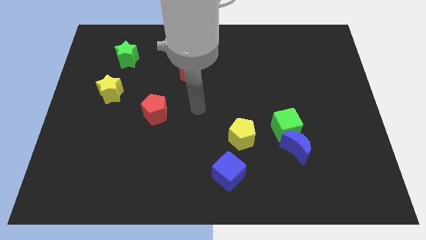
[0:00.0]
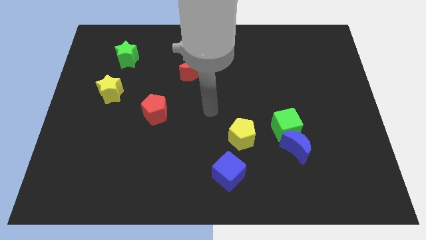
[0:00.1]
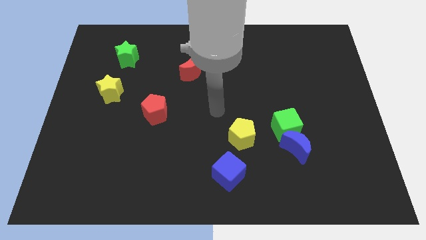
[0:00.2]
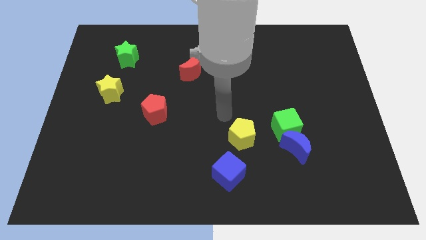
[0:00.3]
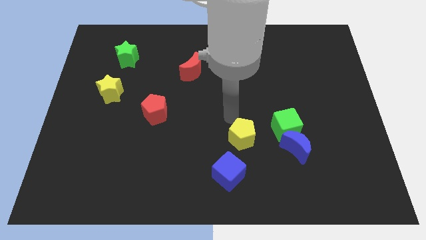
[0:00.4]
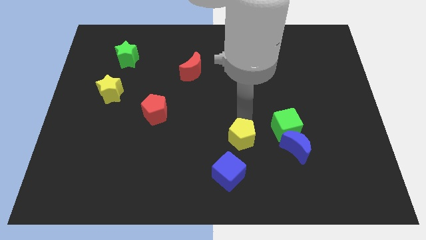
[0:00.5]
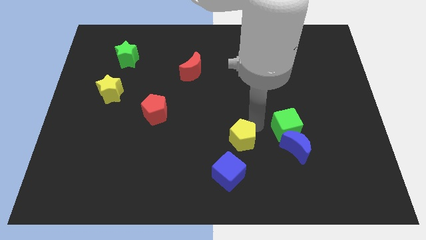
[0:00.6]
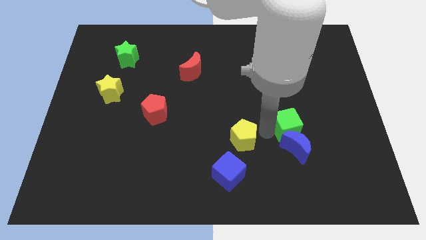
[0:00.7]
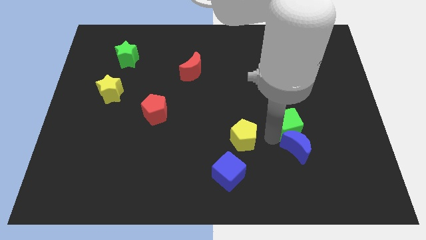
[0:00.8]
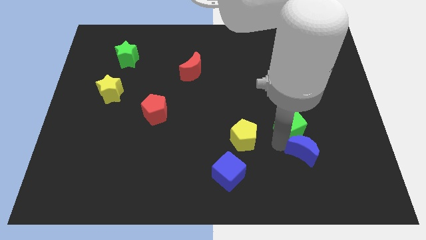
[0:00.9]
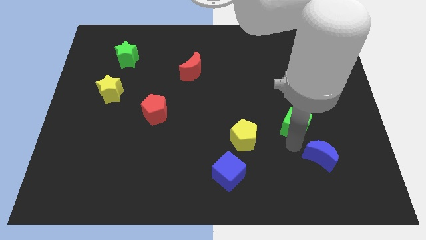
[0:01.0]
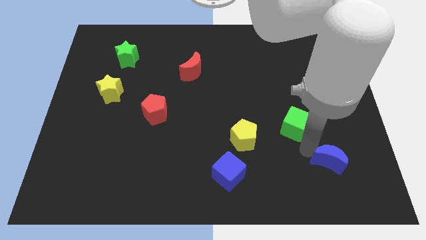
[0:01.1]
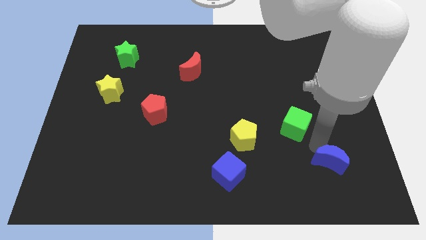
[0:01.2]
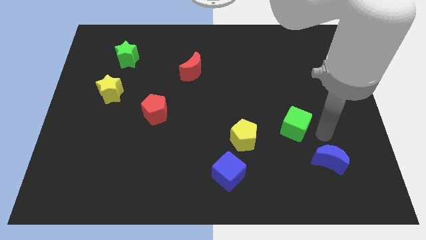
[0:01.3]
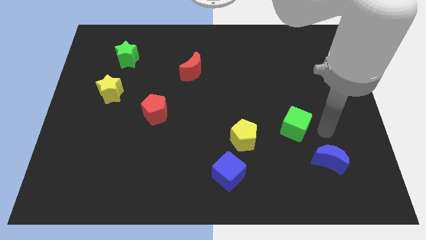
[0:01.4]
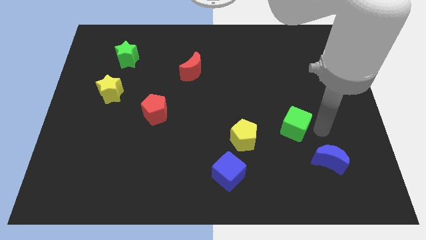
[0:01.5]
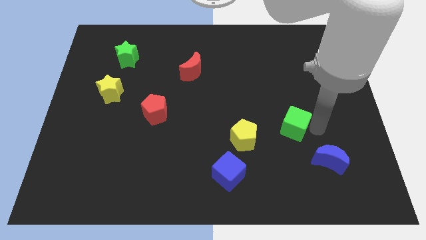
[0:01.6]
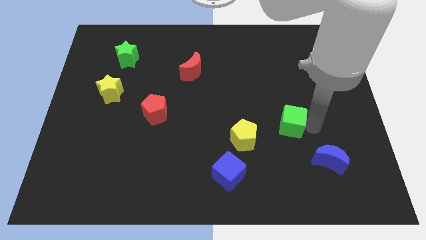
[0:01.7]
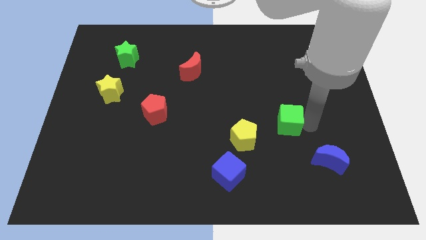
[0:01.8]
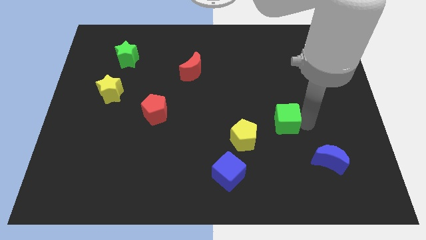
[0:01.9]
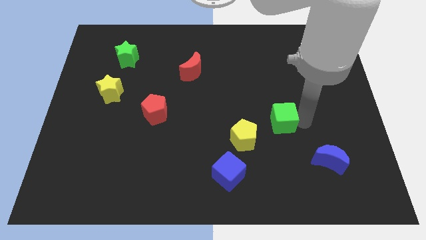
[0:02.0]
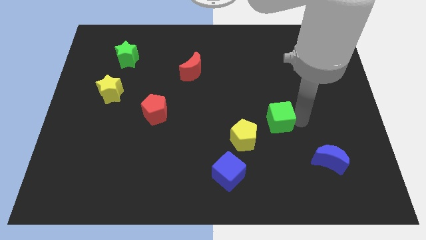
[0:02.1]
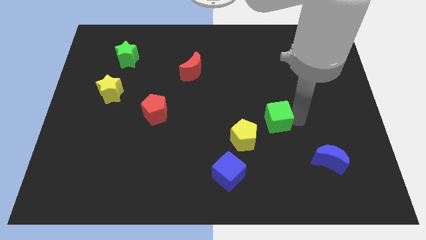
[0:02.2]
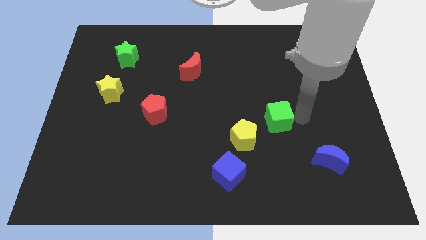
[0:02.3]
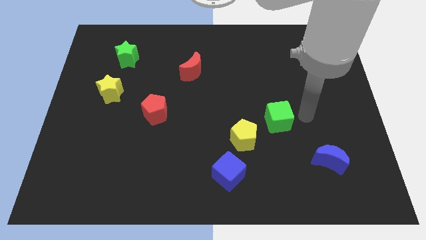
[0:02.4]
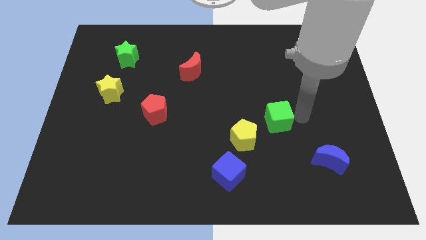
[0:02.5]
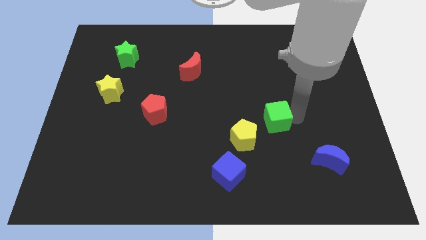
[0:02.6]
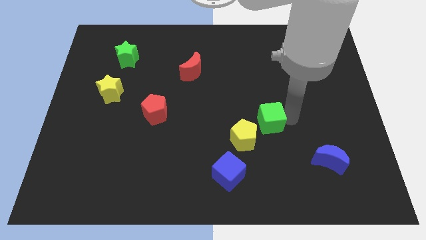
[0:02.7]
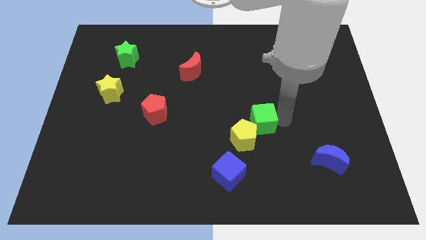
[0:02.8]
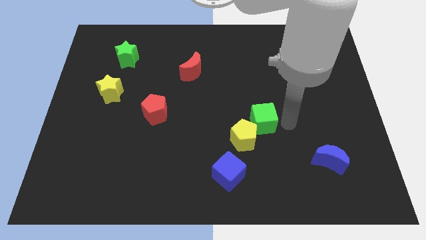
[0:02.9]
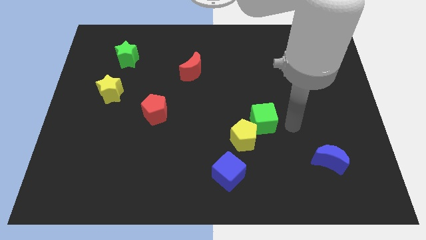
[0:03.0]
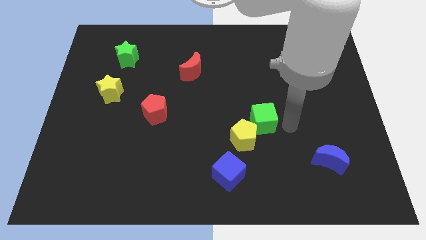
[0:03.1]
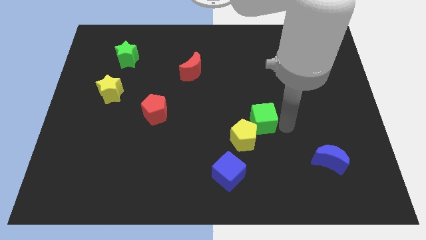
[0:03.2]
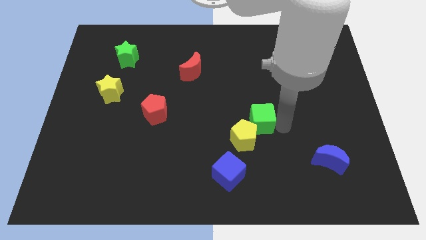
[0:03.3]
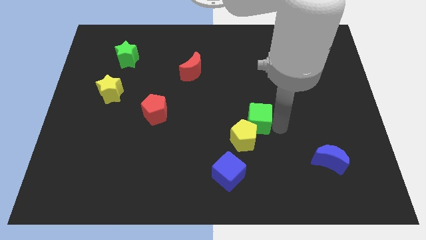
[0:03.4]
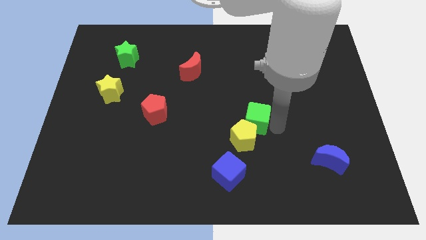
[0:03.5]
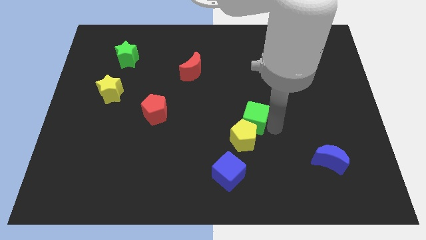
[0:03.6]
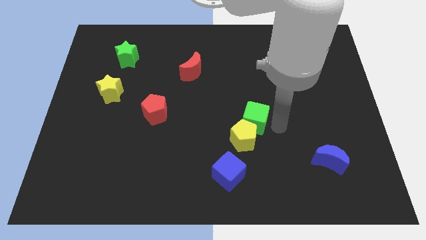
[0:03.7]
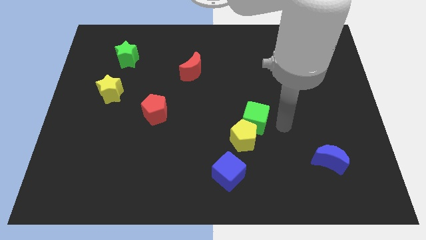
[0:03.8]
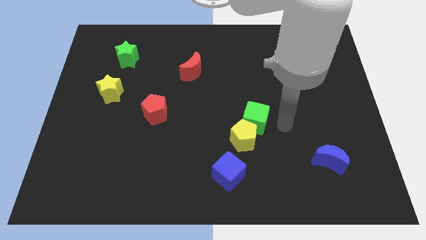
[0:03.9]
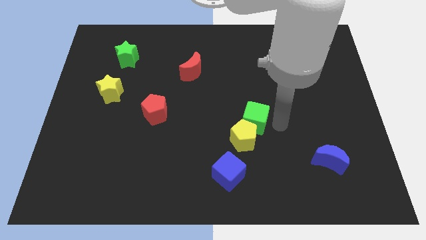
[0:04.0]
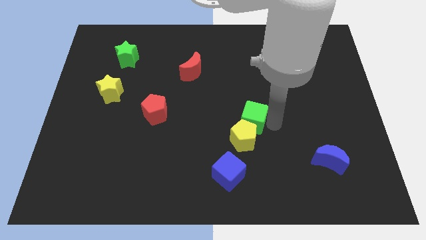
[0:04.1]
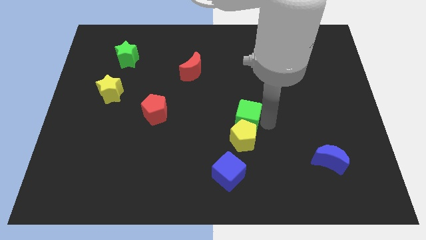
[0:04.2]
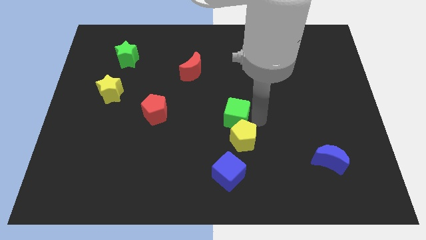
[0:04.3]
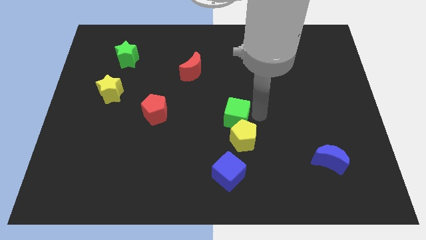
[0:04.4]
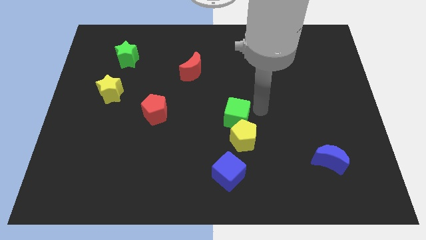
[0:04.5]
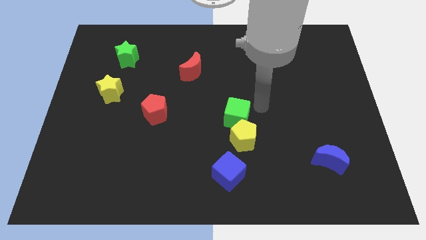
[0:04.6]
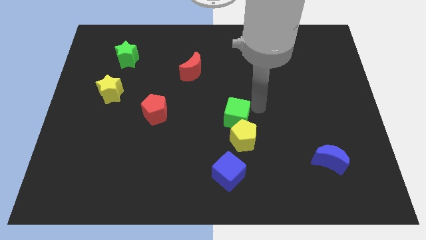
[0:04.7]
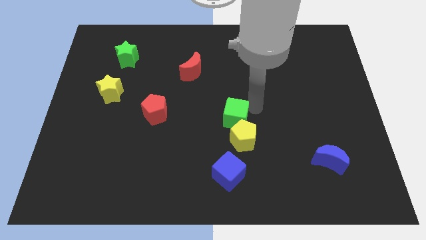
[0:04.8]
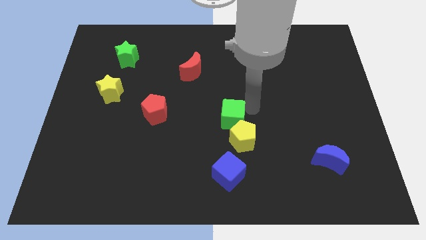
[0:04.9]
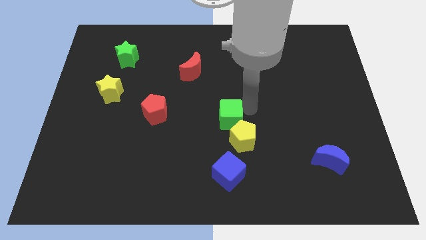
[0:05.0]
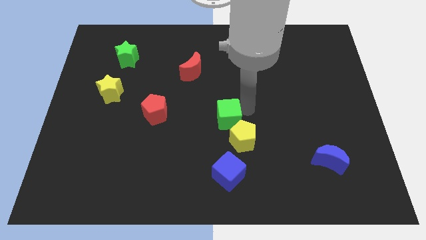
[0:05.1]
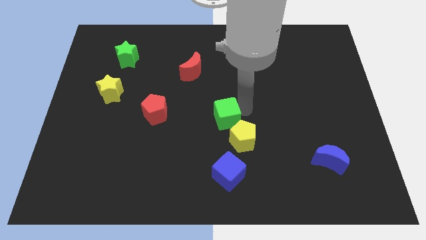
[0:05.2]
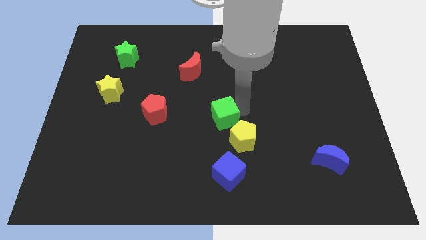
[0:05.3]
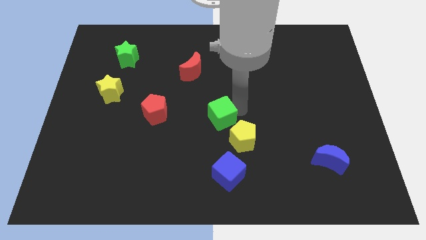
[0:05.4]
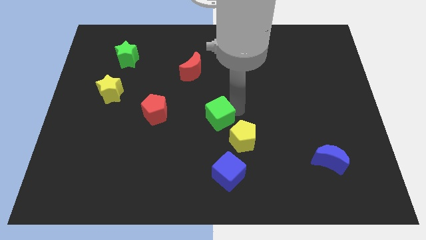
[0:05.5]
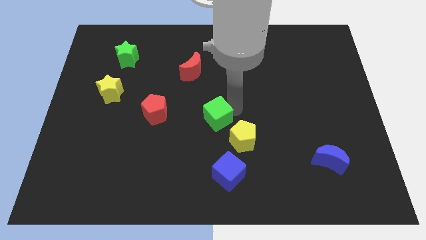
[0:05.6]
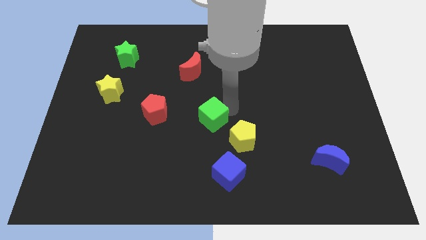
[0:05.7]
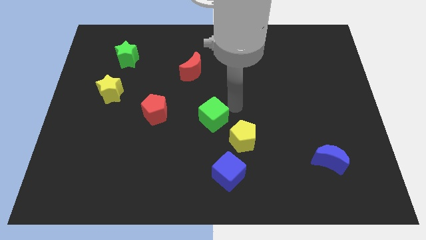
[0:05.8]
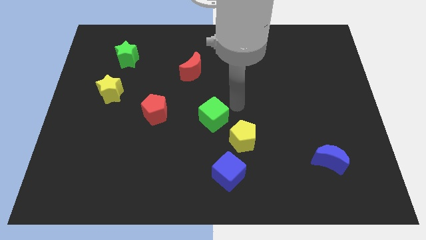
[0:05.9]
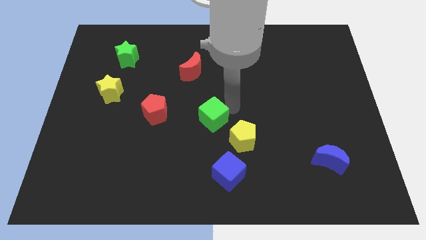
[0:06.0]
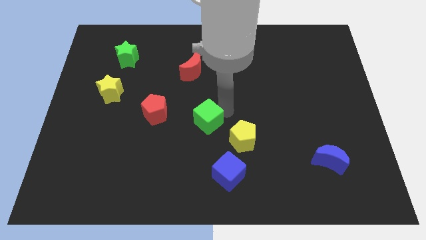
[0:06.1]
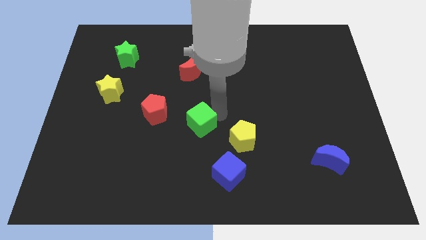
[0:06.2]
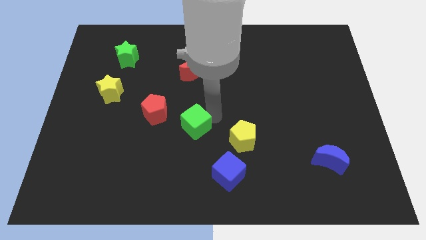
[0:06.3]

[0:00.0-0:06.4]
slide the green cube left

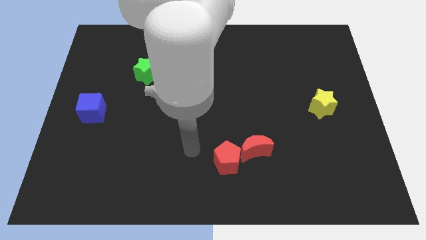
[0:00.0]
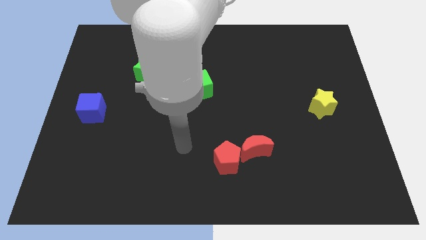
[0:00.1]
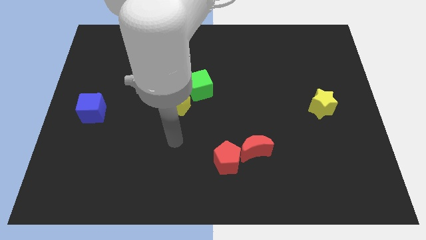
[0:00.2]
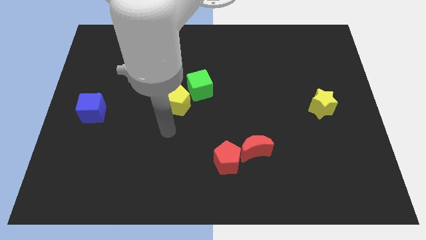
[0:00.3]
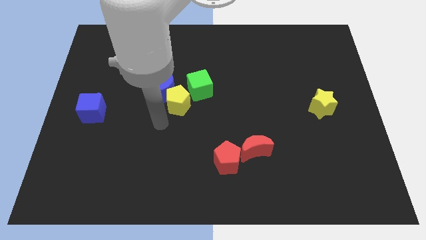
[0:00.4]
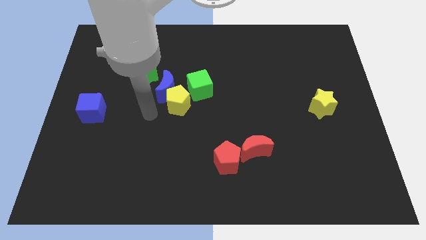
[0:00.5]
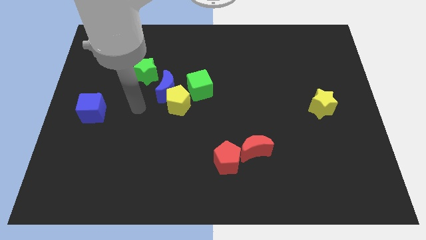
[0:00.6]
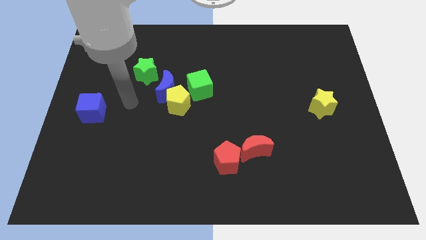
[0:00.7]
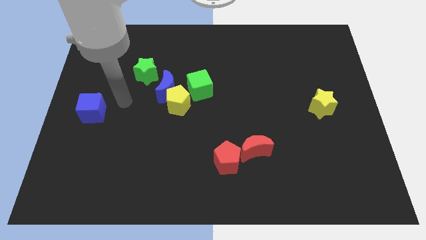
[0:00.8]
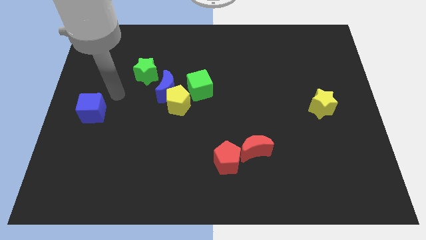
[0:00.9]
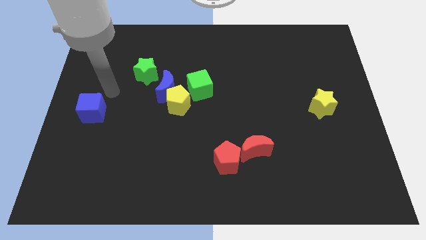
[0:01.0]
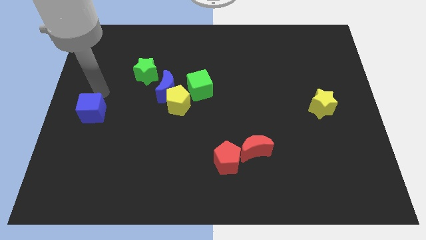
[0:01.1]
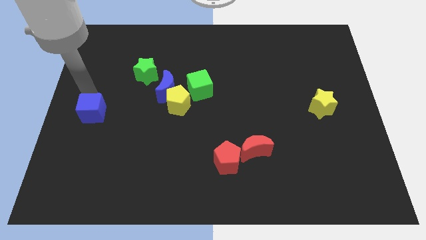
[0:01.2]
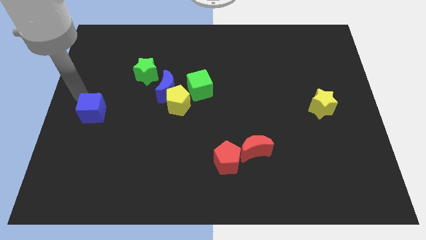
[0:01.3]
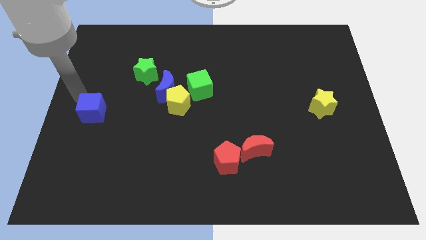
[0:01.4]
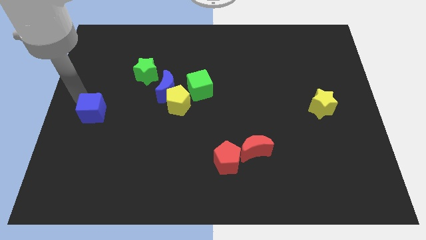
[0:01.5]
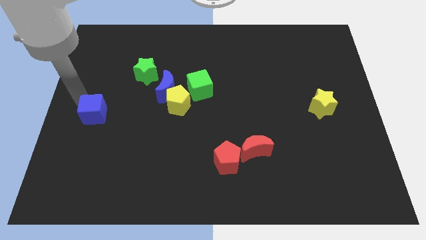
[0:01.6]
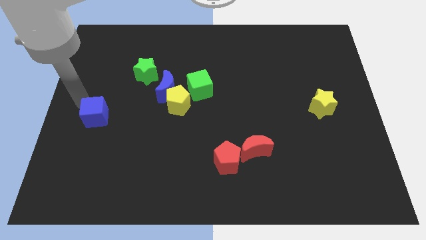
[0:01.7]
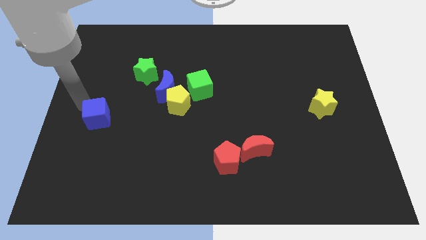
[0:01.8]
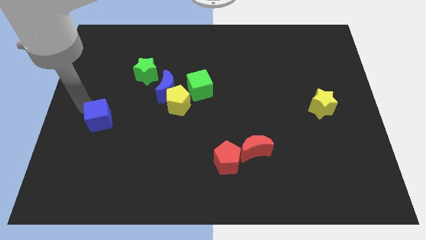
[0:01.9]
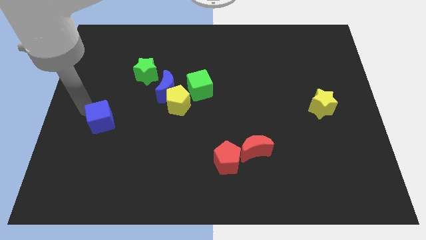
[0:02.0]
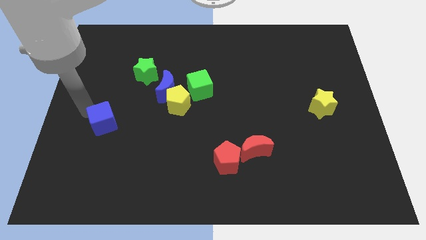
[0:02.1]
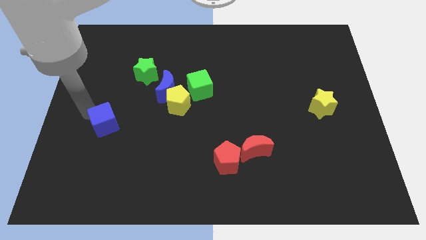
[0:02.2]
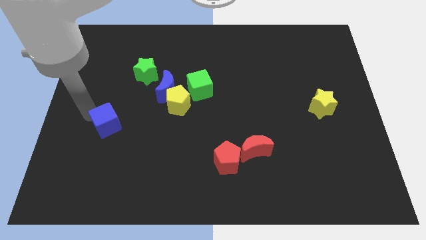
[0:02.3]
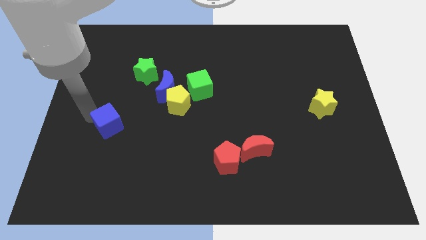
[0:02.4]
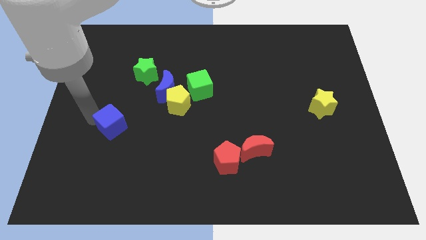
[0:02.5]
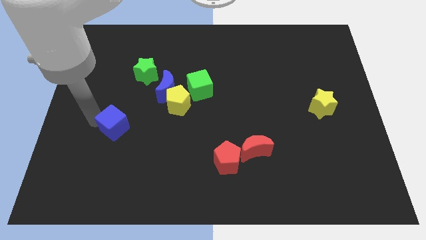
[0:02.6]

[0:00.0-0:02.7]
move the blue cube a bit down and right
